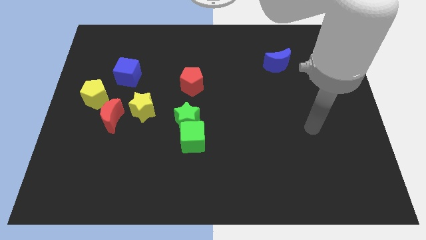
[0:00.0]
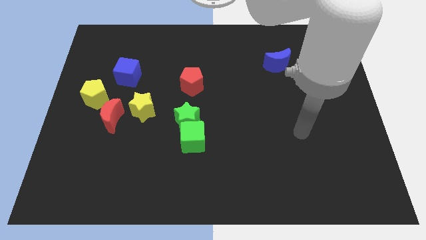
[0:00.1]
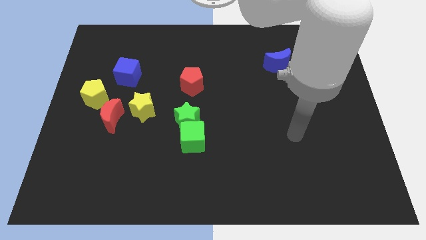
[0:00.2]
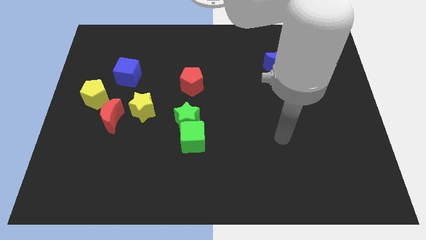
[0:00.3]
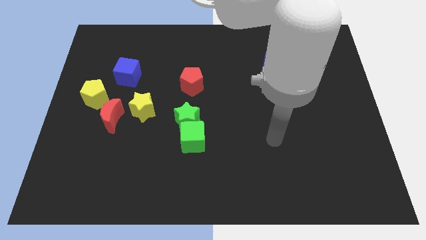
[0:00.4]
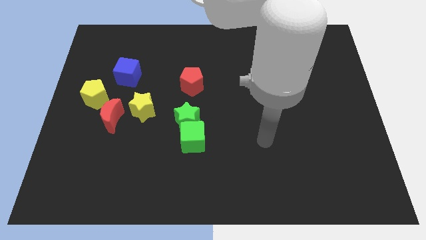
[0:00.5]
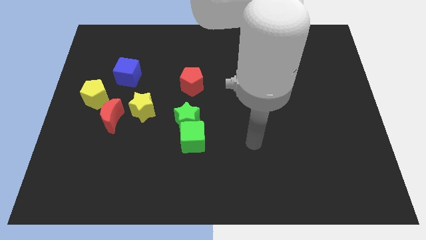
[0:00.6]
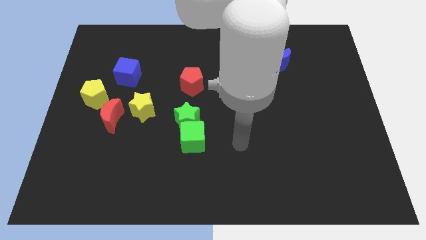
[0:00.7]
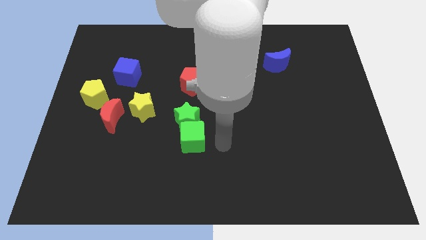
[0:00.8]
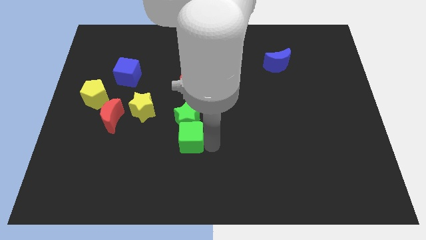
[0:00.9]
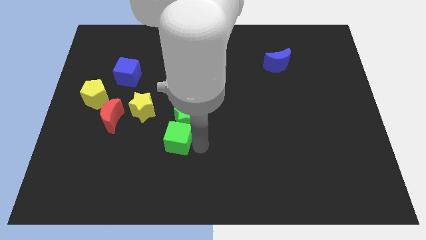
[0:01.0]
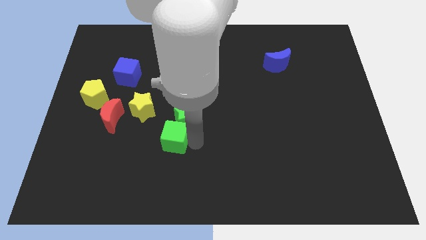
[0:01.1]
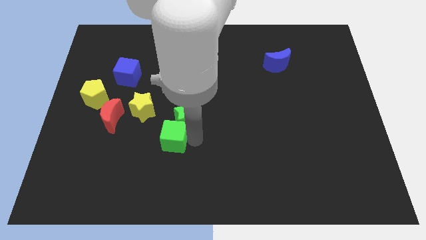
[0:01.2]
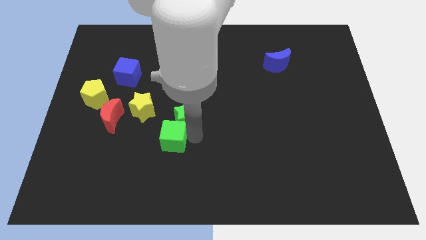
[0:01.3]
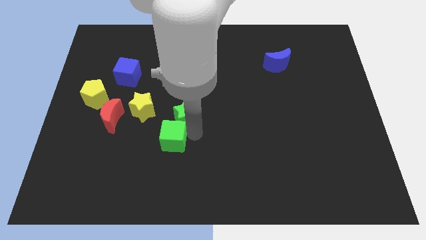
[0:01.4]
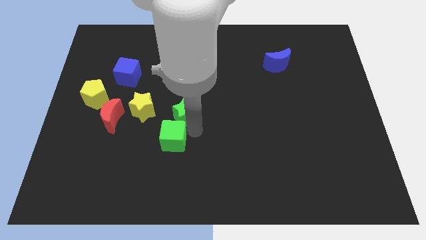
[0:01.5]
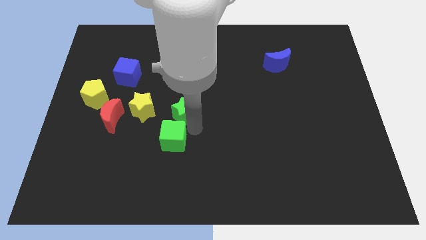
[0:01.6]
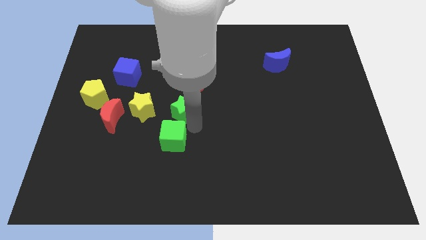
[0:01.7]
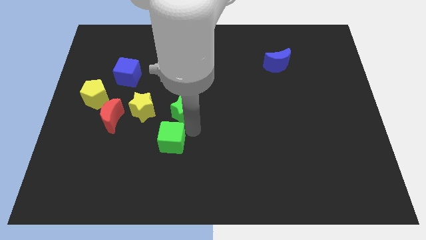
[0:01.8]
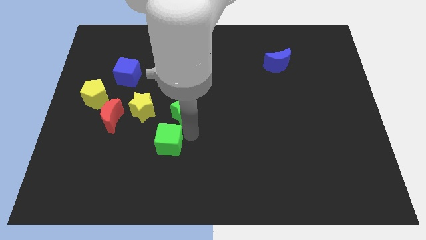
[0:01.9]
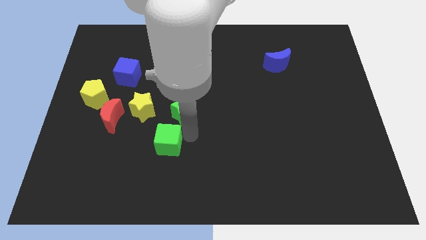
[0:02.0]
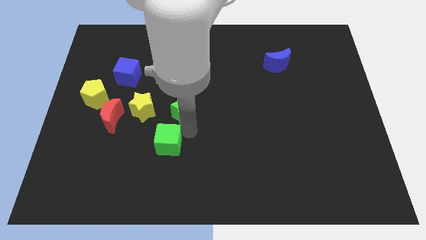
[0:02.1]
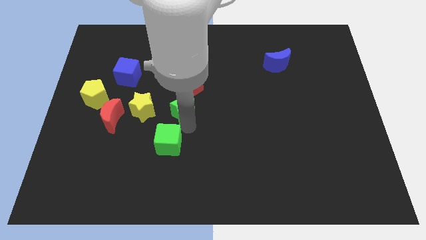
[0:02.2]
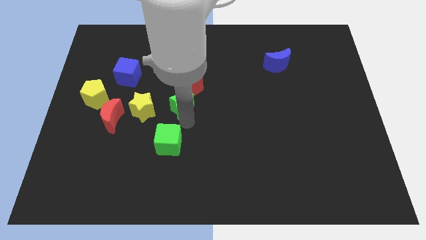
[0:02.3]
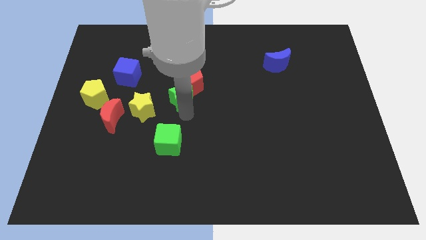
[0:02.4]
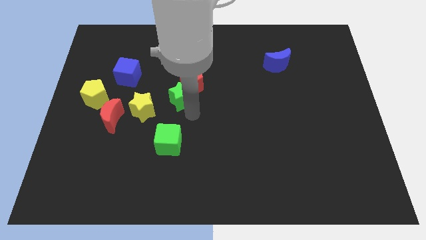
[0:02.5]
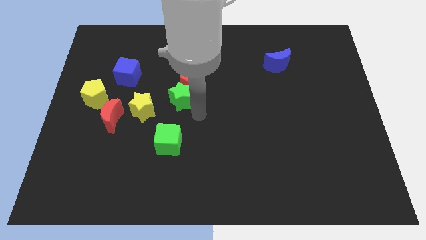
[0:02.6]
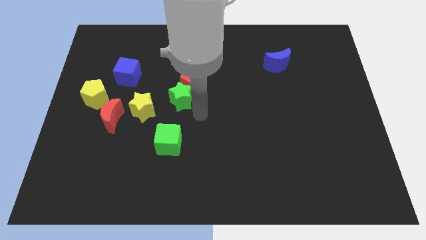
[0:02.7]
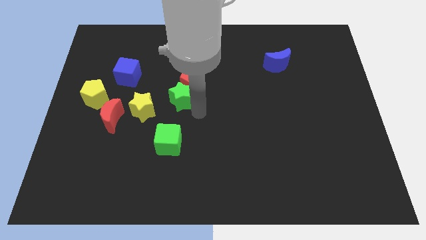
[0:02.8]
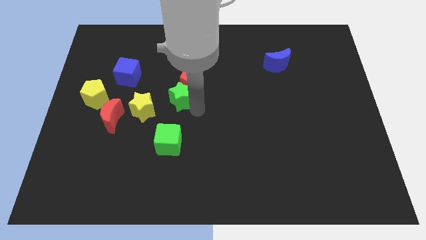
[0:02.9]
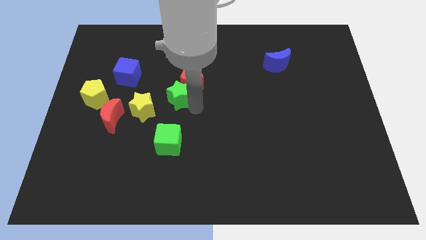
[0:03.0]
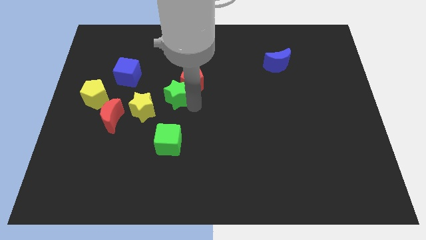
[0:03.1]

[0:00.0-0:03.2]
push the green star upwards somewhat

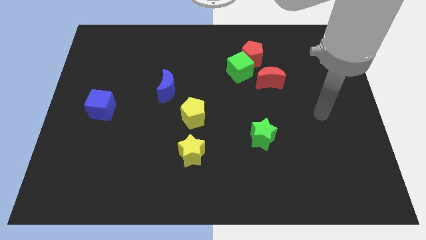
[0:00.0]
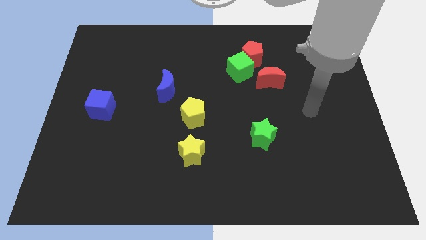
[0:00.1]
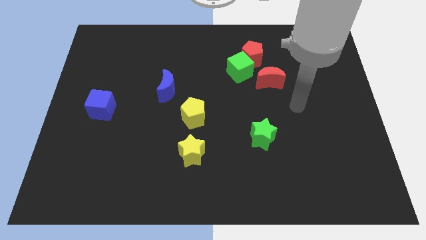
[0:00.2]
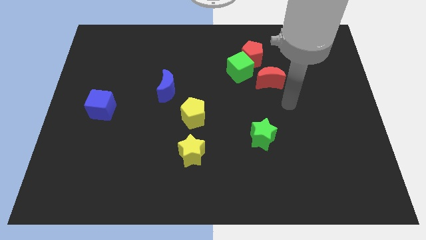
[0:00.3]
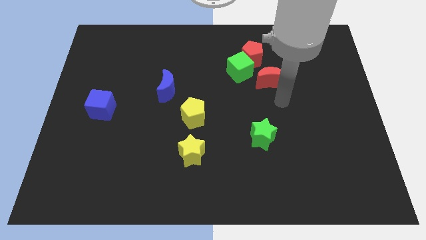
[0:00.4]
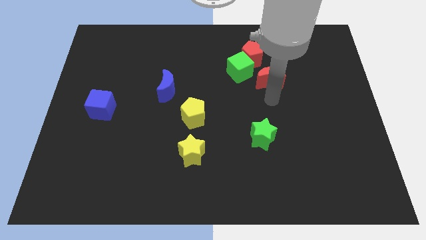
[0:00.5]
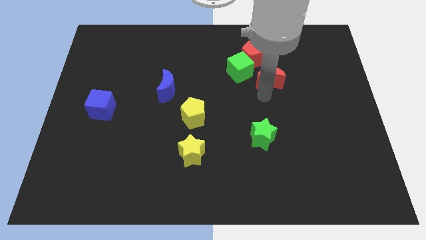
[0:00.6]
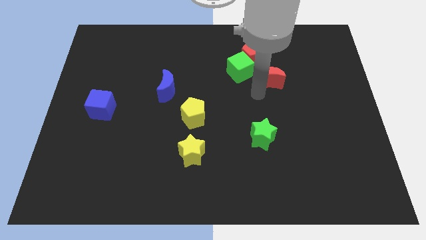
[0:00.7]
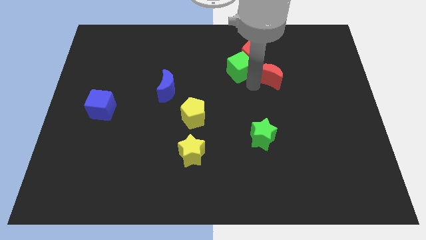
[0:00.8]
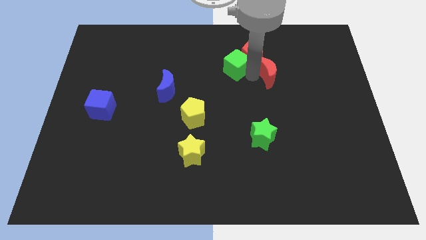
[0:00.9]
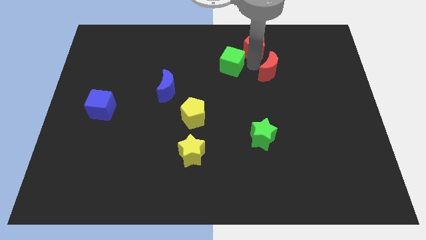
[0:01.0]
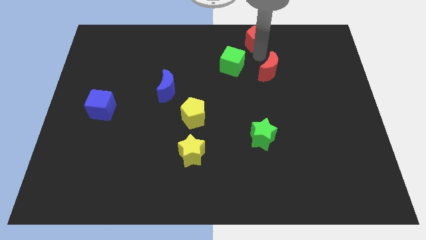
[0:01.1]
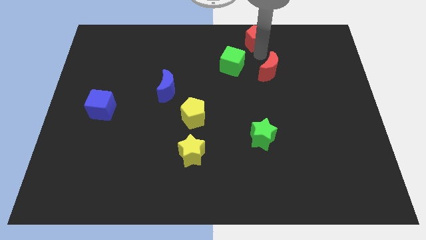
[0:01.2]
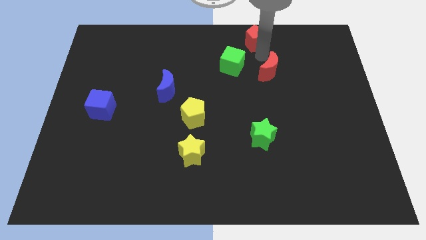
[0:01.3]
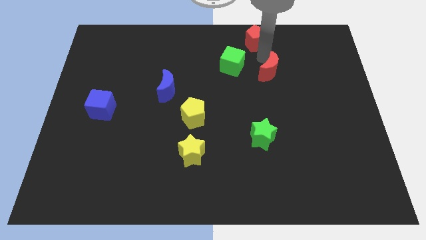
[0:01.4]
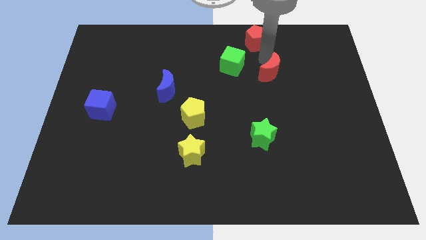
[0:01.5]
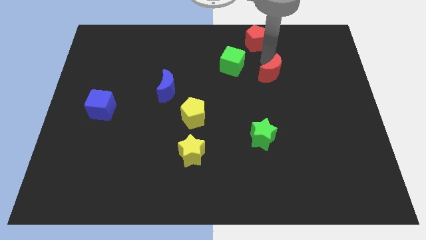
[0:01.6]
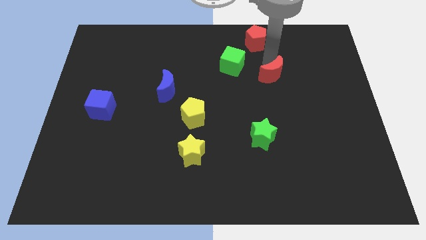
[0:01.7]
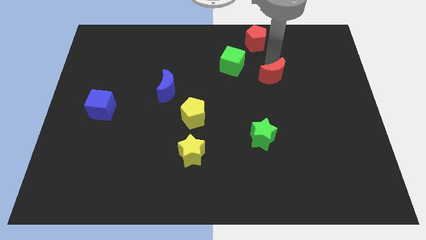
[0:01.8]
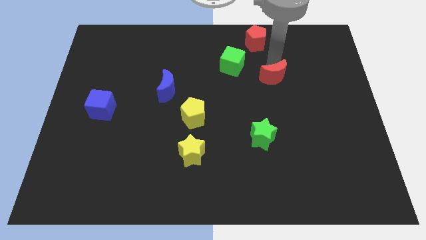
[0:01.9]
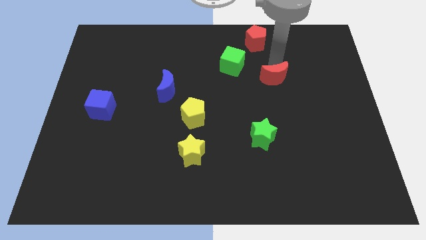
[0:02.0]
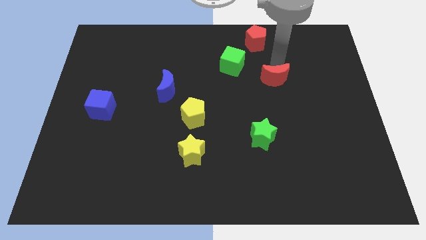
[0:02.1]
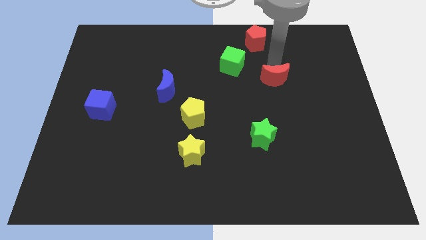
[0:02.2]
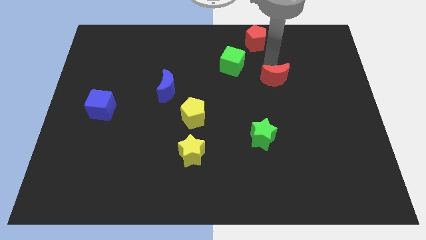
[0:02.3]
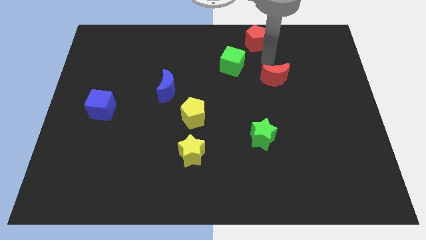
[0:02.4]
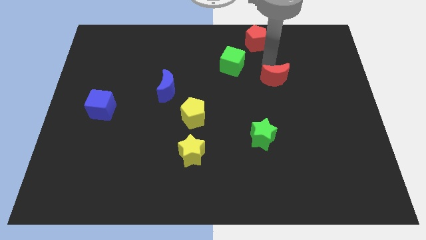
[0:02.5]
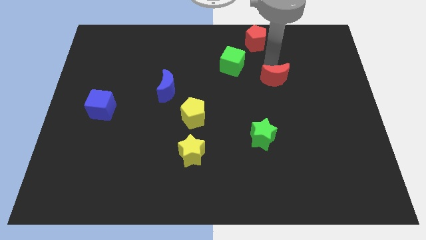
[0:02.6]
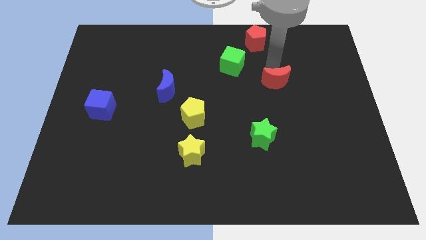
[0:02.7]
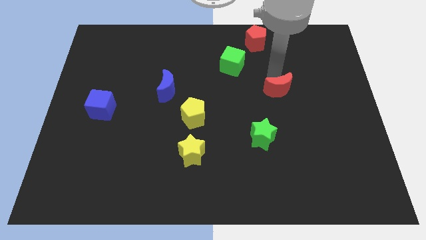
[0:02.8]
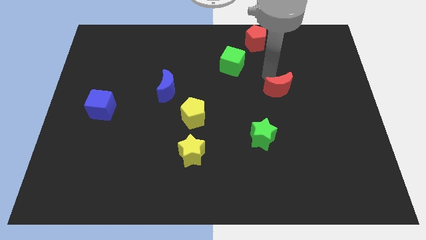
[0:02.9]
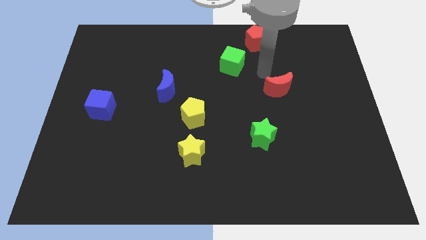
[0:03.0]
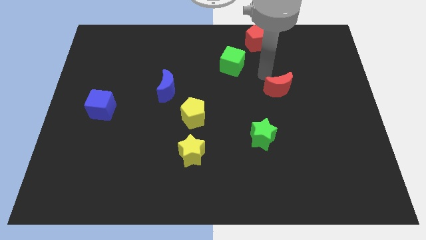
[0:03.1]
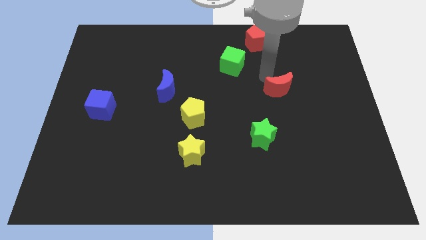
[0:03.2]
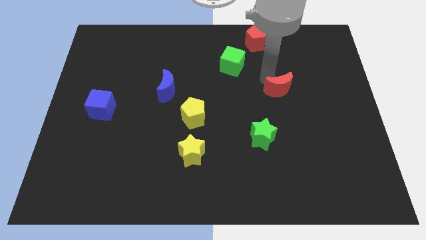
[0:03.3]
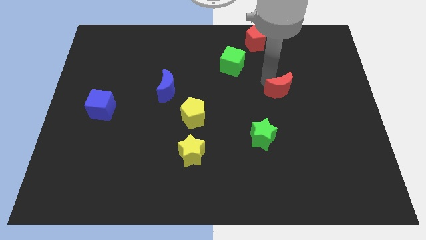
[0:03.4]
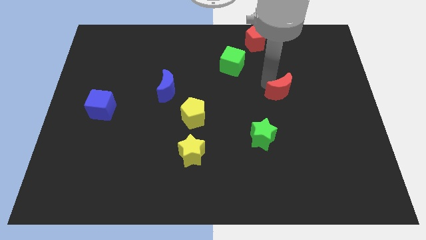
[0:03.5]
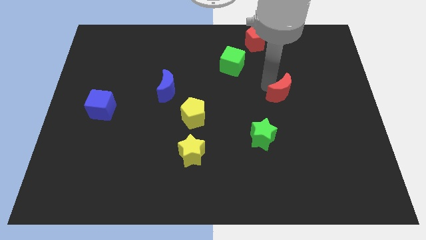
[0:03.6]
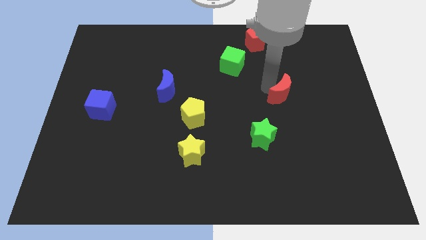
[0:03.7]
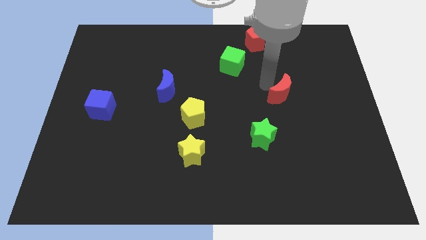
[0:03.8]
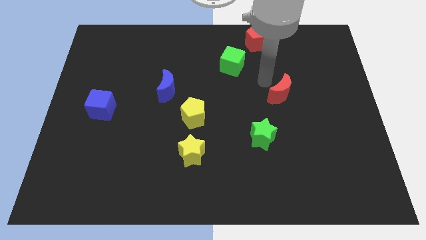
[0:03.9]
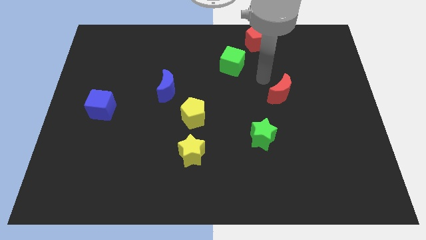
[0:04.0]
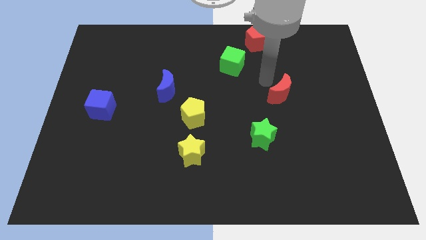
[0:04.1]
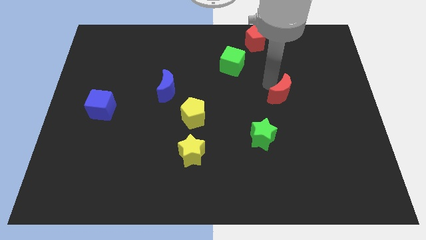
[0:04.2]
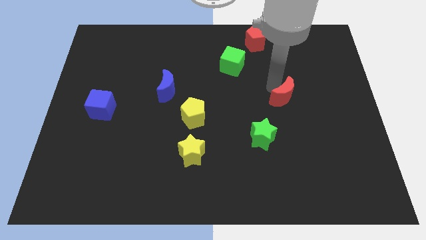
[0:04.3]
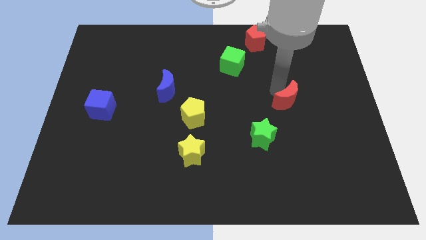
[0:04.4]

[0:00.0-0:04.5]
push the red moon diagonally downwards and to the right a little
